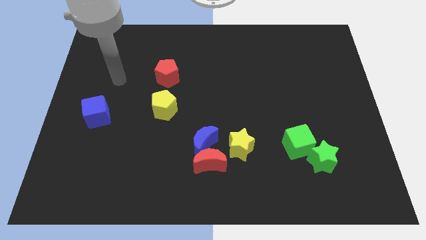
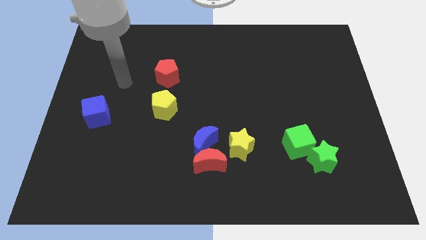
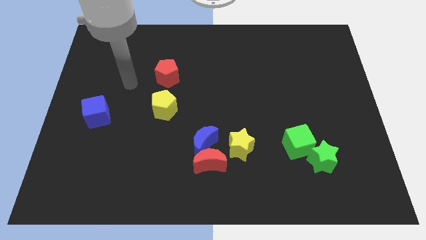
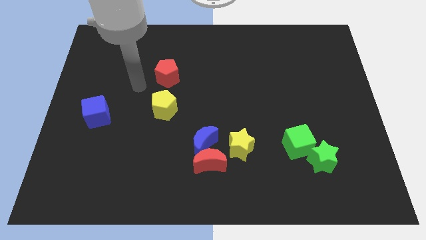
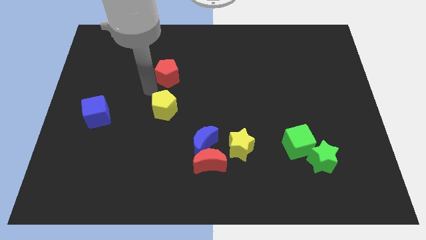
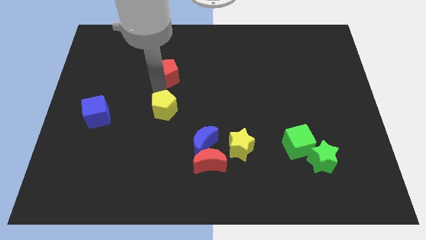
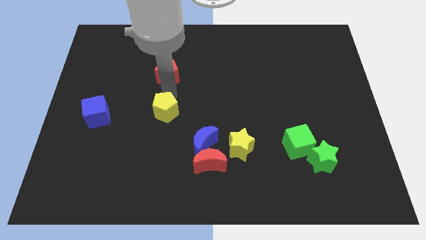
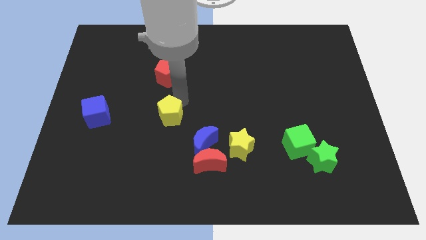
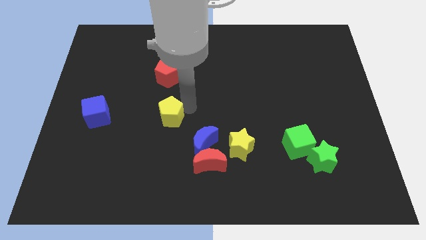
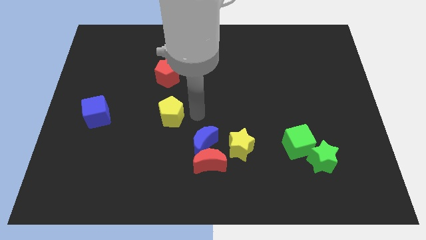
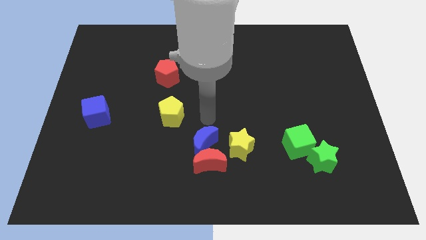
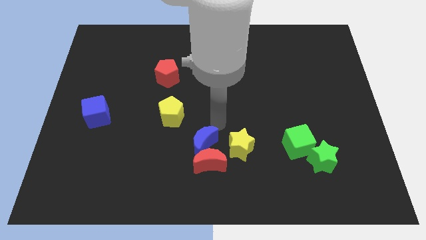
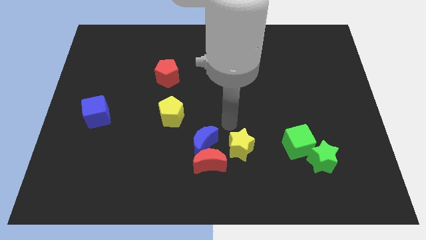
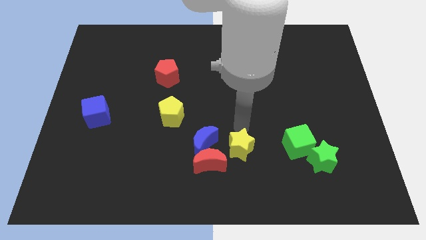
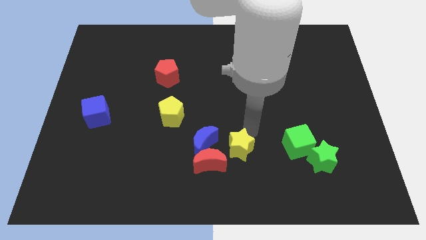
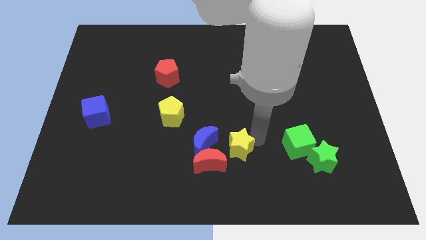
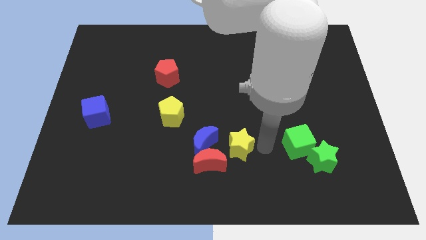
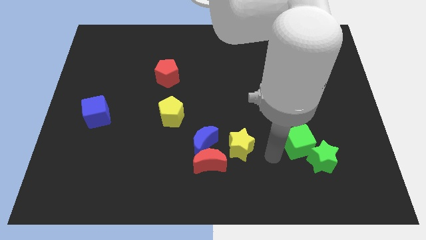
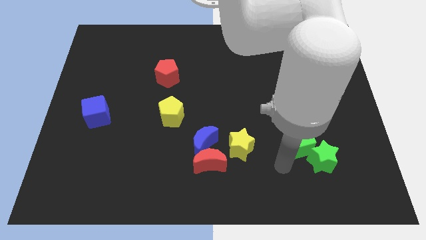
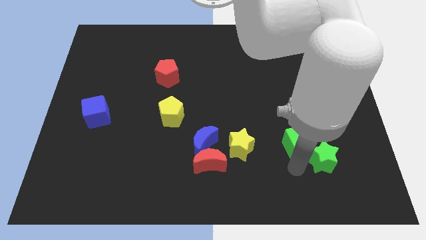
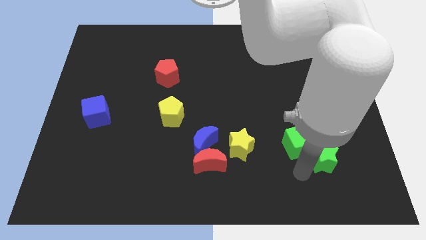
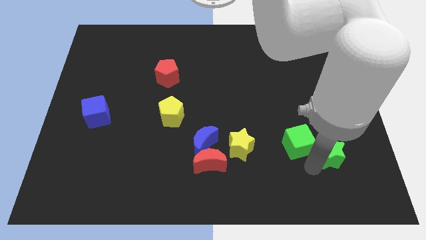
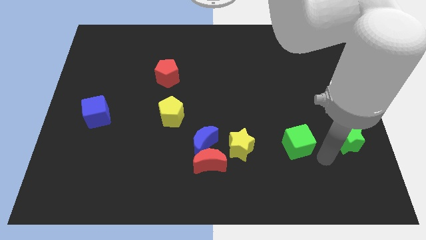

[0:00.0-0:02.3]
pull the green cube apart from the green star

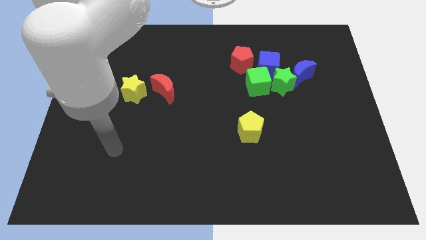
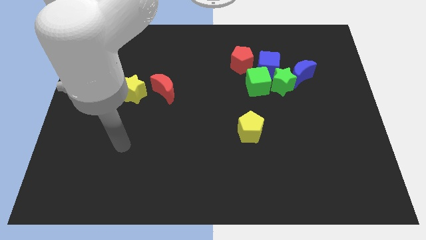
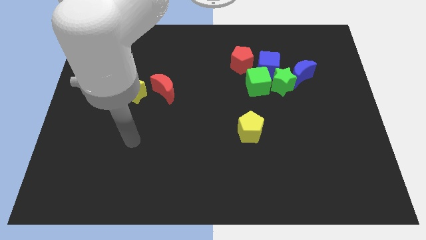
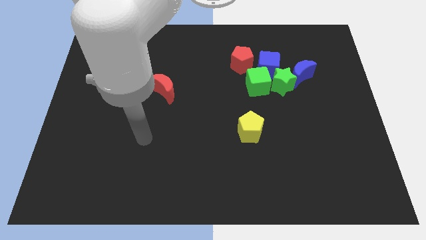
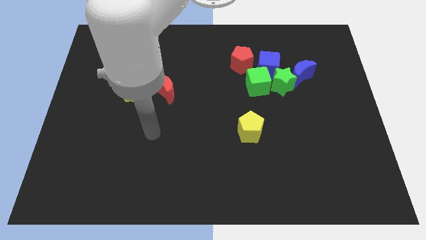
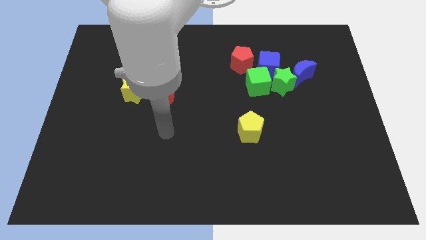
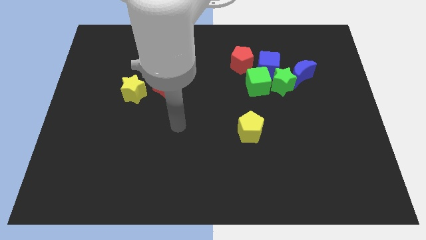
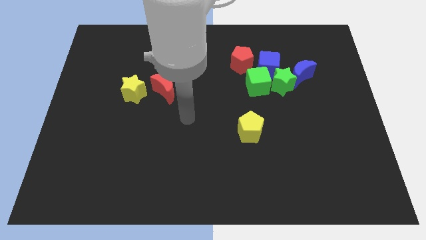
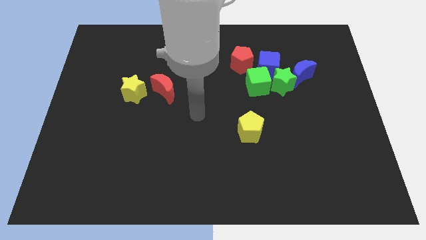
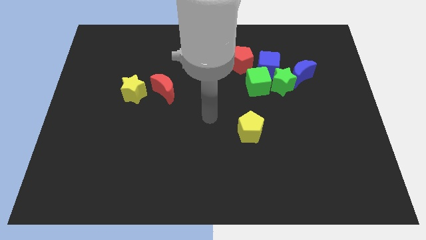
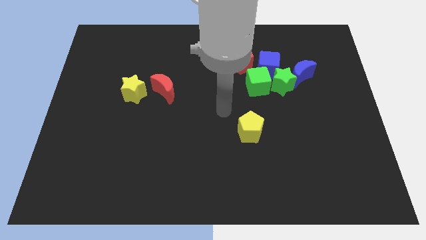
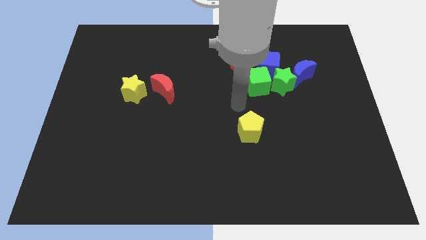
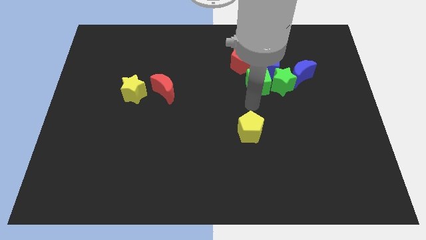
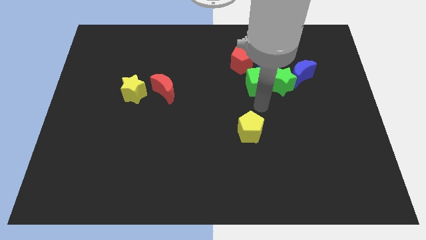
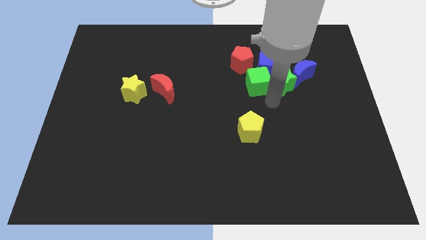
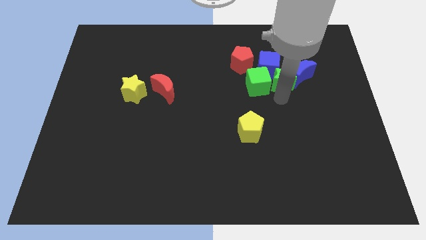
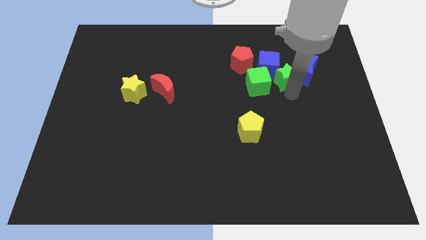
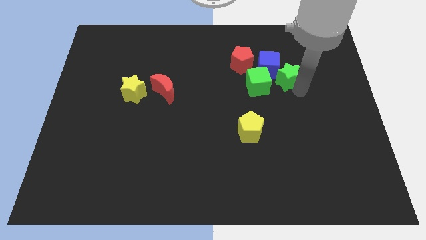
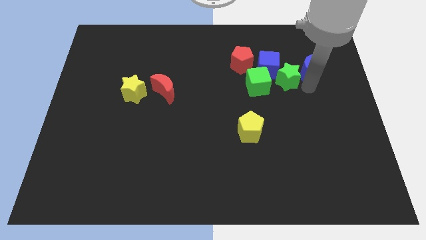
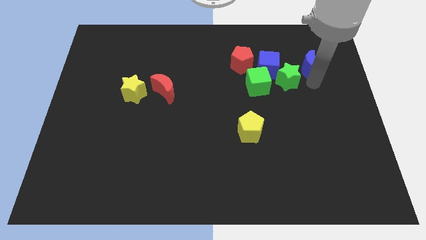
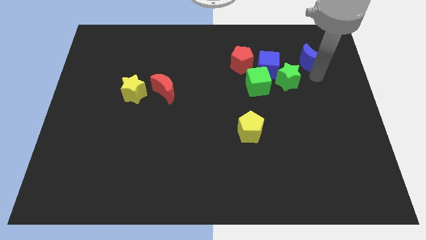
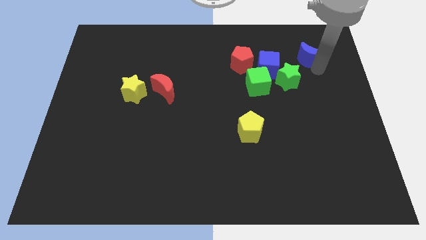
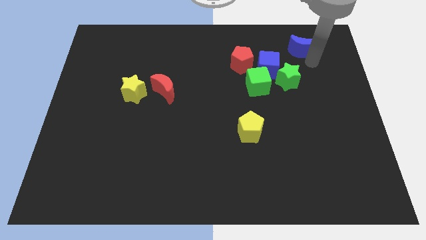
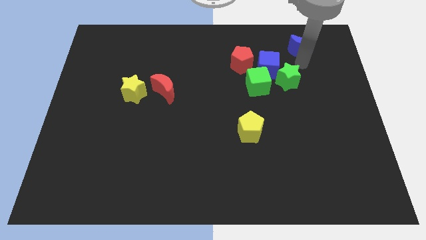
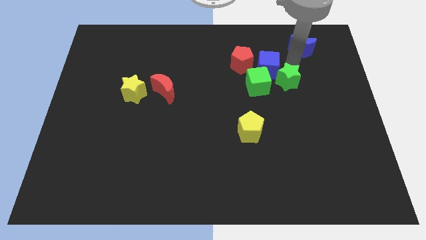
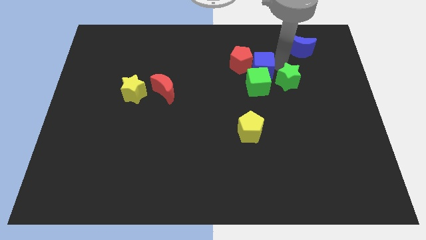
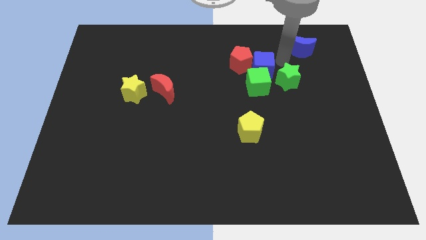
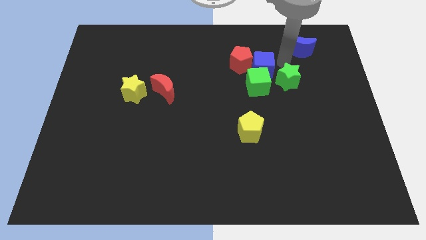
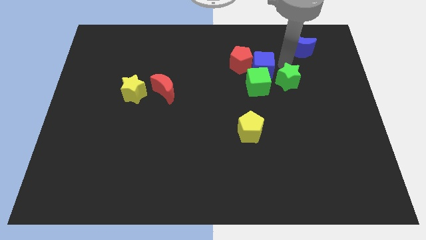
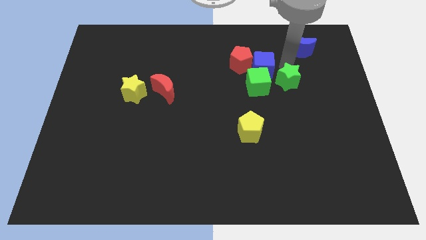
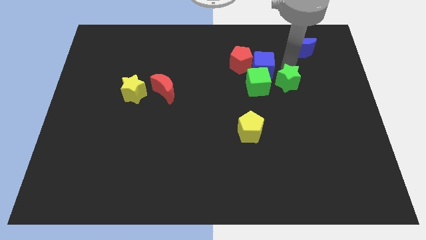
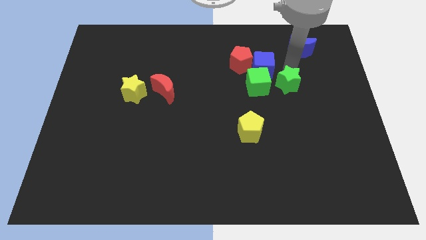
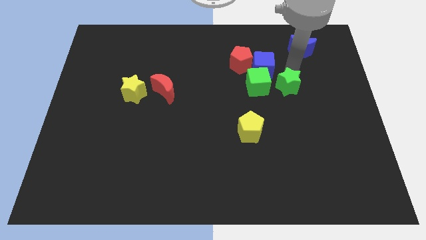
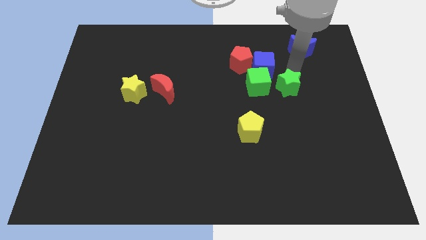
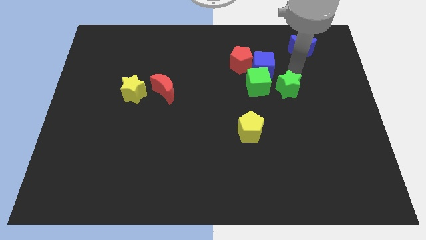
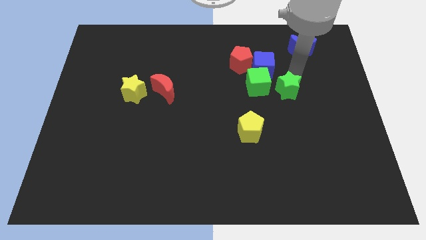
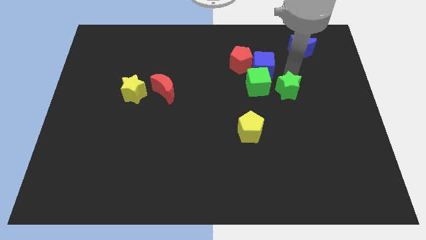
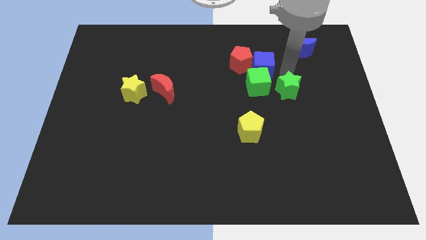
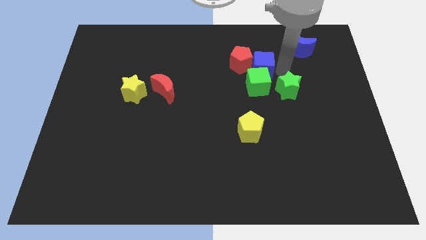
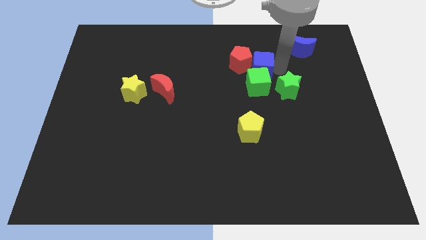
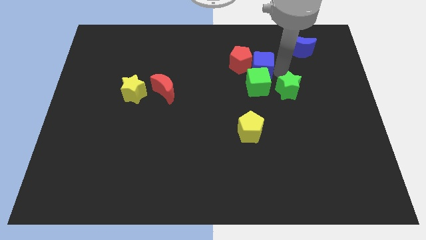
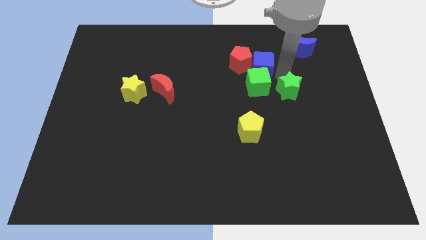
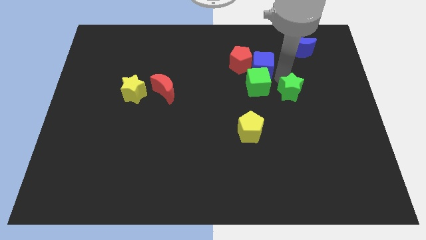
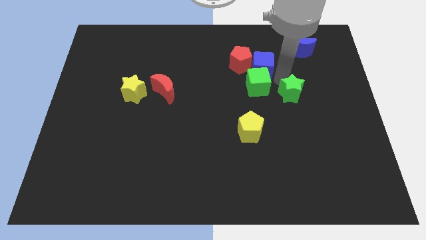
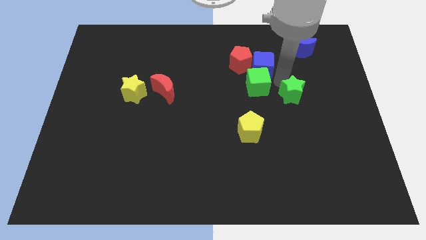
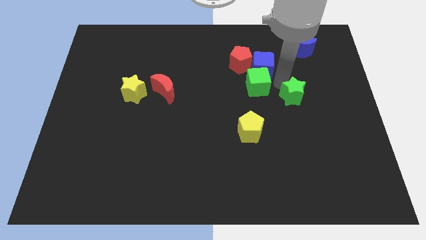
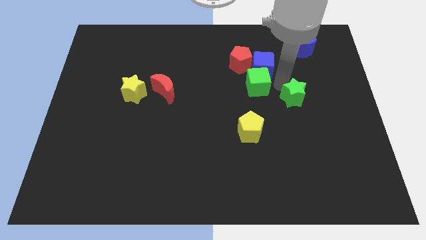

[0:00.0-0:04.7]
pull the green star apart from the group of blocks

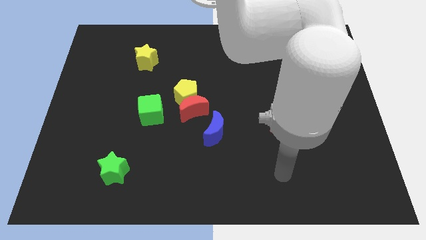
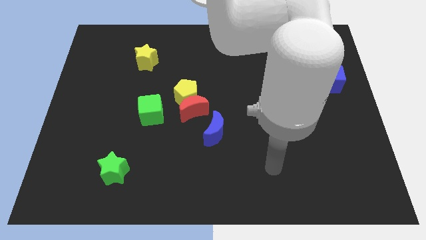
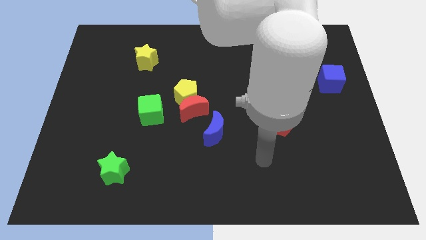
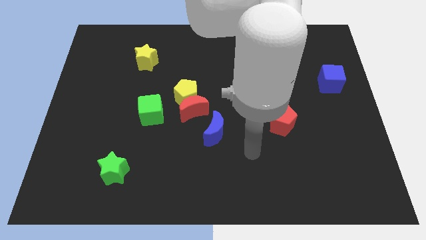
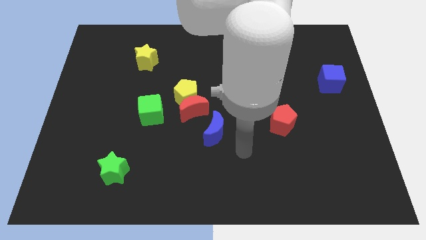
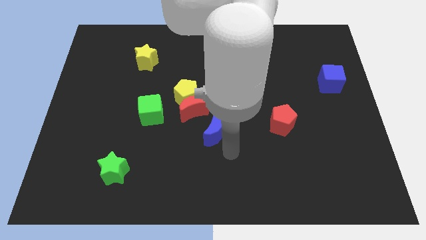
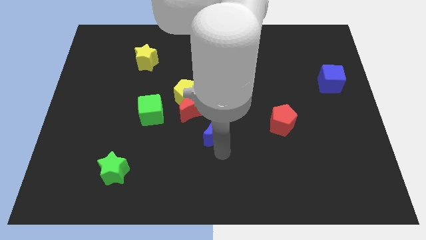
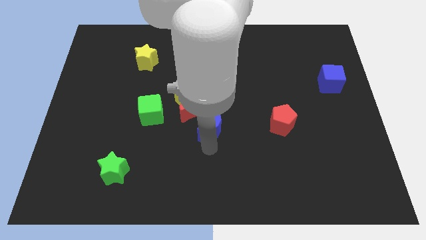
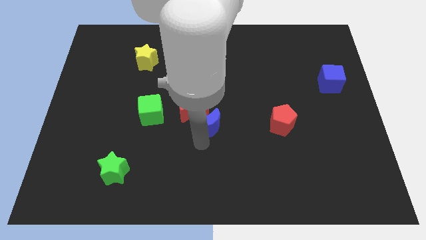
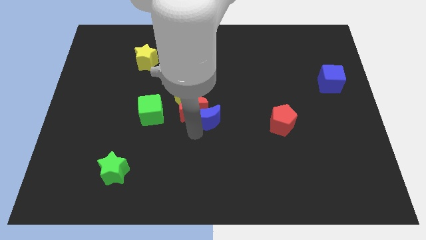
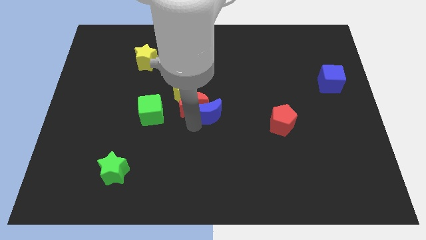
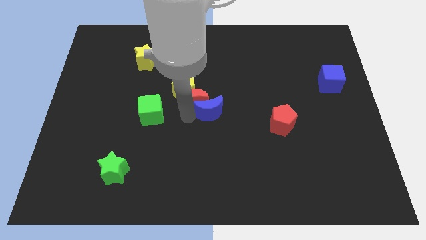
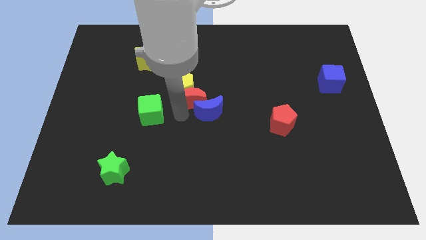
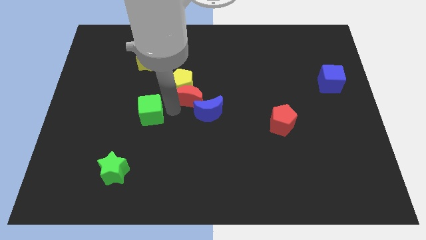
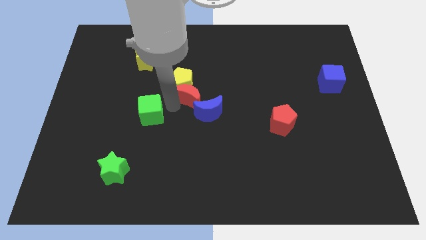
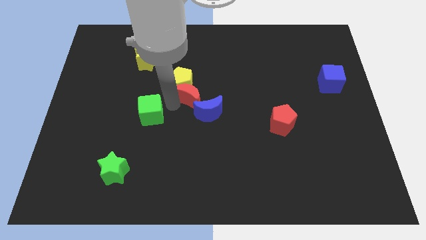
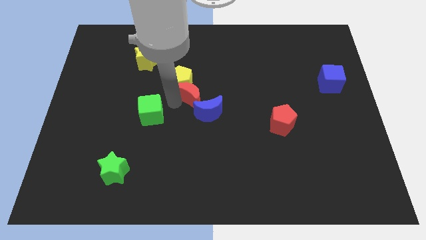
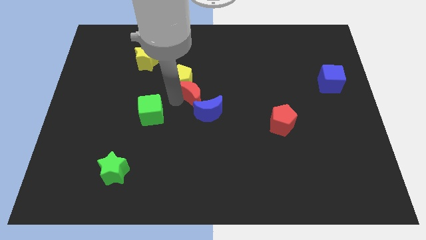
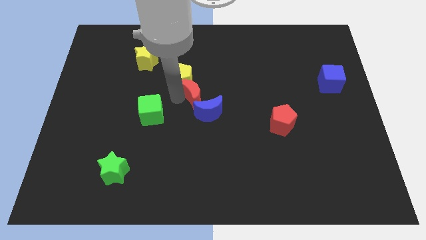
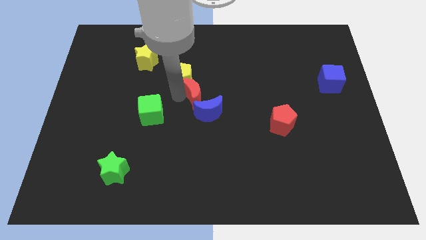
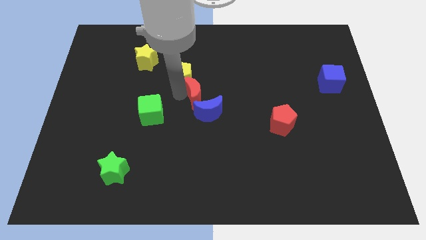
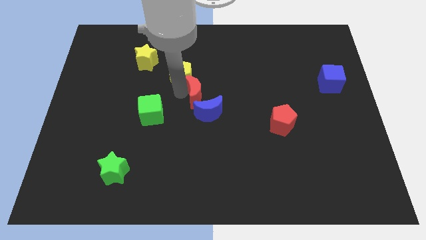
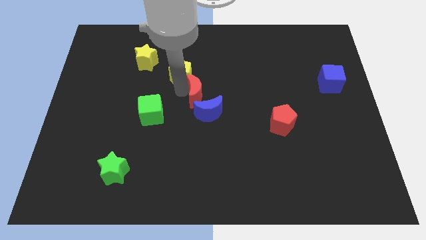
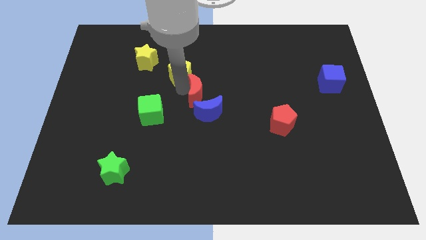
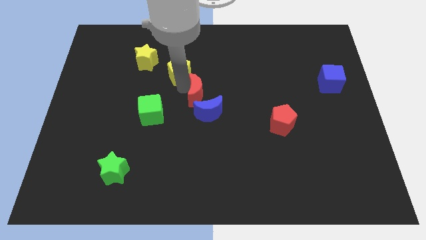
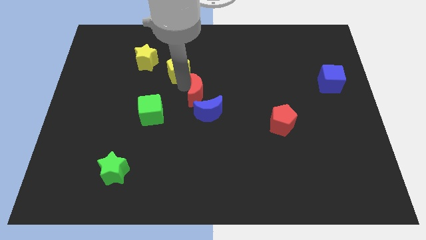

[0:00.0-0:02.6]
separate the yellow pentagon from the red moon and green cube

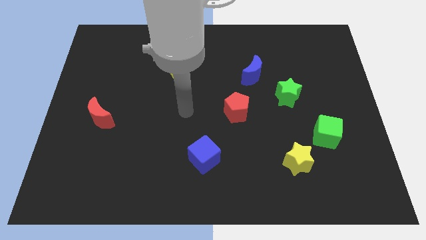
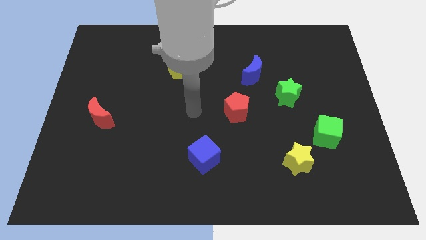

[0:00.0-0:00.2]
move the green cube away from the yellow star
